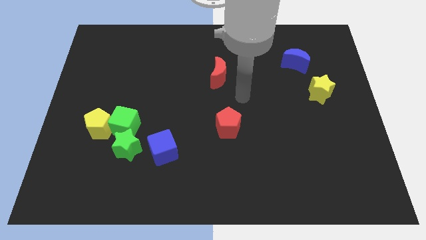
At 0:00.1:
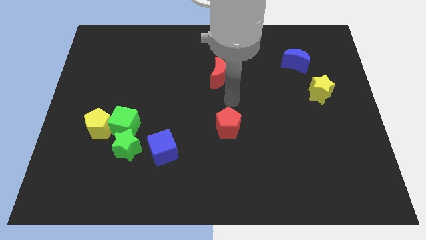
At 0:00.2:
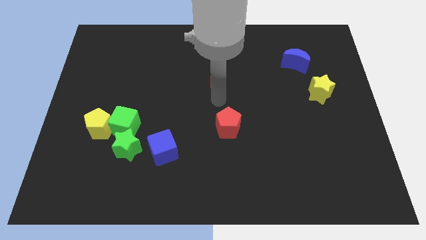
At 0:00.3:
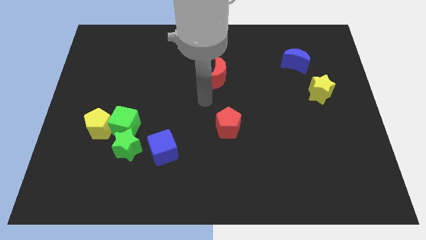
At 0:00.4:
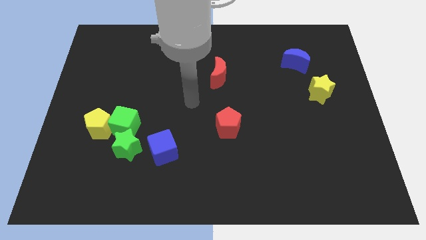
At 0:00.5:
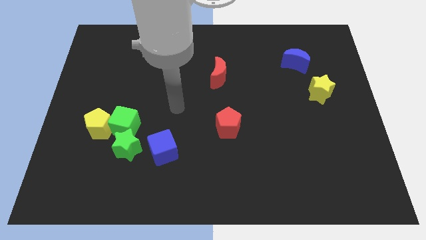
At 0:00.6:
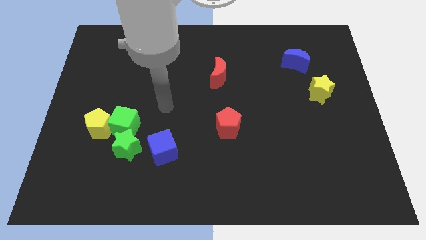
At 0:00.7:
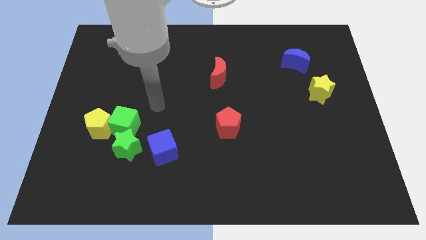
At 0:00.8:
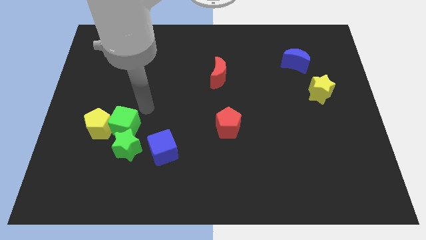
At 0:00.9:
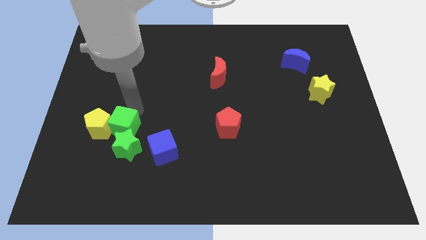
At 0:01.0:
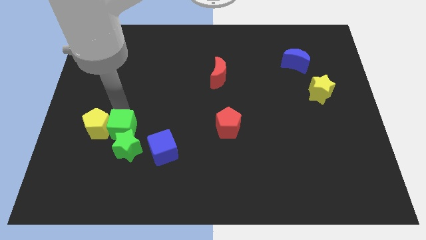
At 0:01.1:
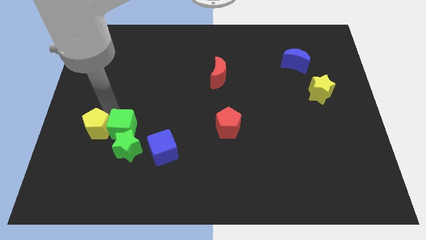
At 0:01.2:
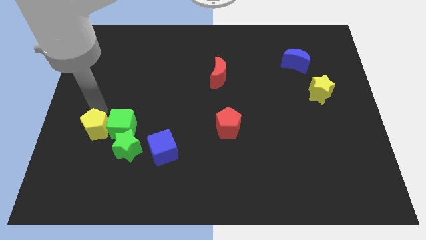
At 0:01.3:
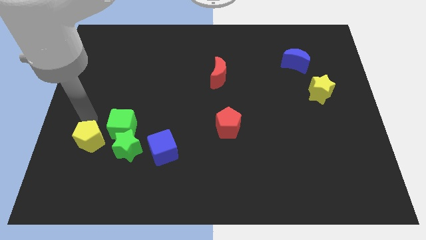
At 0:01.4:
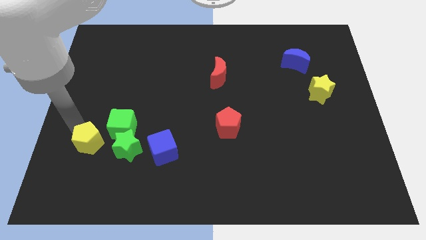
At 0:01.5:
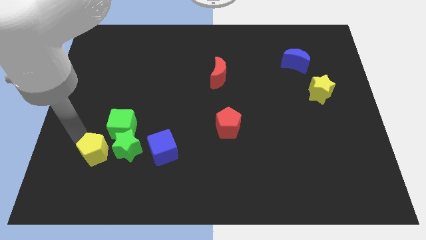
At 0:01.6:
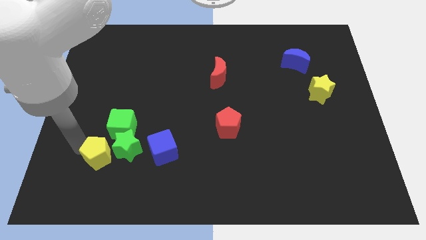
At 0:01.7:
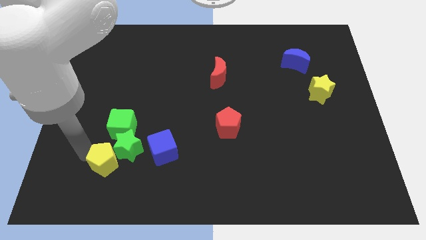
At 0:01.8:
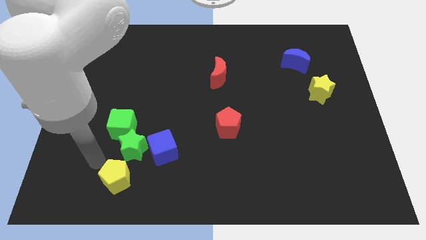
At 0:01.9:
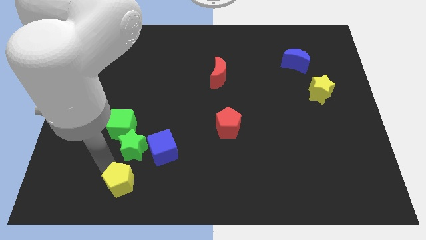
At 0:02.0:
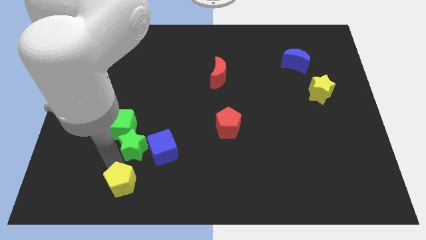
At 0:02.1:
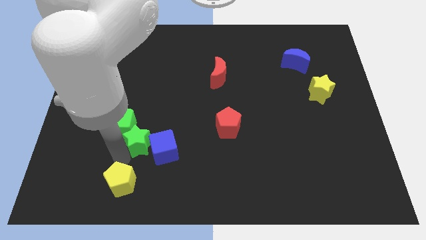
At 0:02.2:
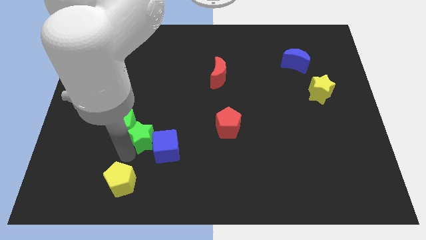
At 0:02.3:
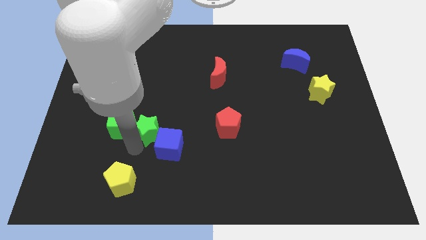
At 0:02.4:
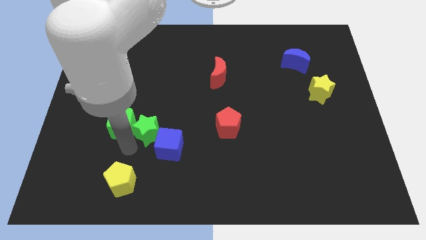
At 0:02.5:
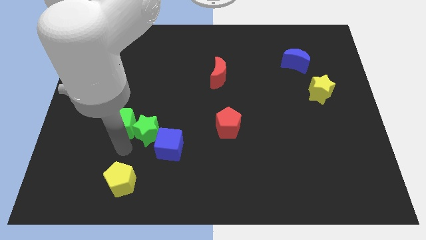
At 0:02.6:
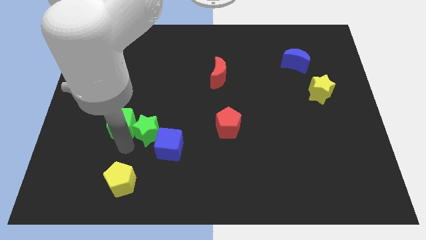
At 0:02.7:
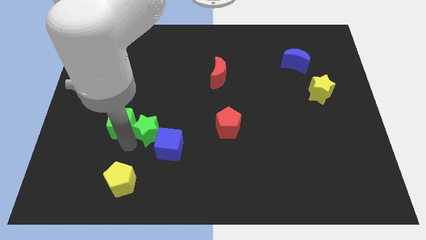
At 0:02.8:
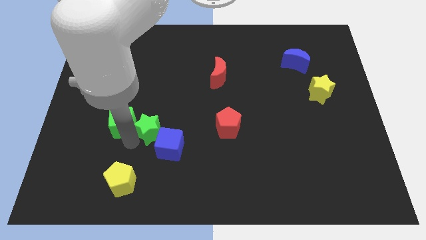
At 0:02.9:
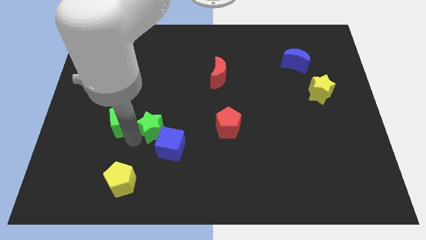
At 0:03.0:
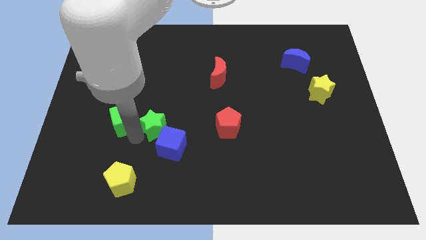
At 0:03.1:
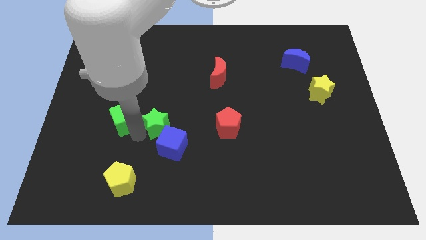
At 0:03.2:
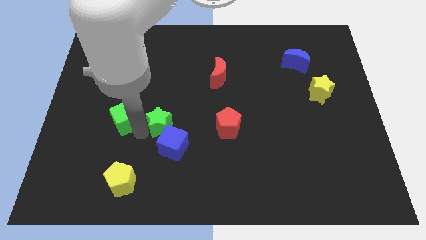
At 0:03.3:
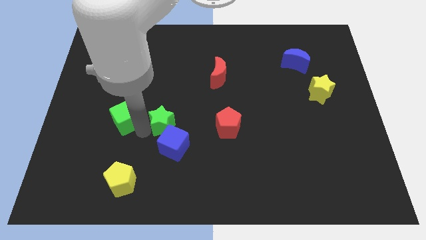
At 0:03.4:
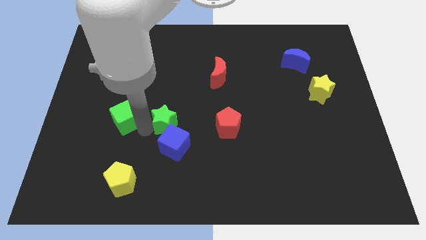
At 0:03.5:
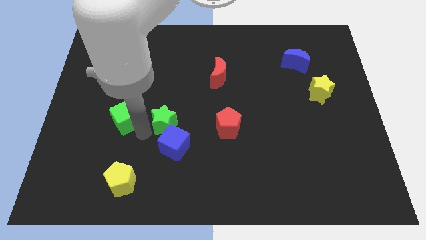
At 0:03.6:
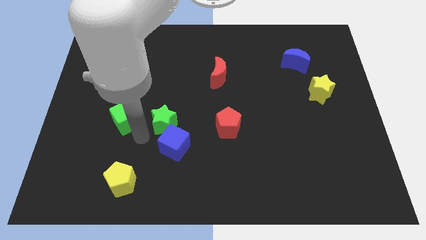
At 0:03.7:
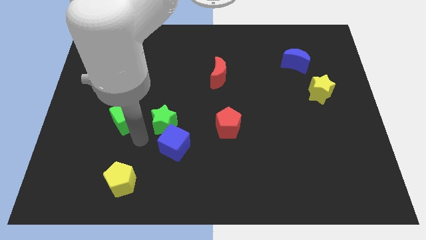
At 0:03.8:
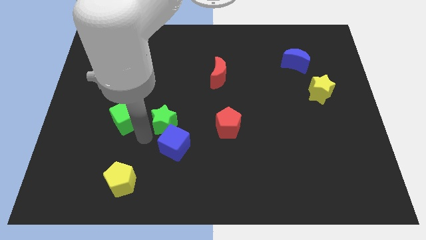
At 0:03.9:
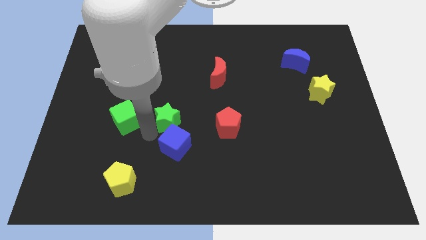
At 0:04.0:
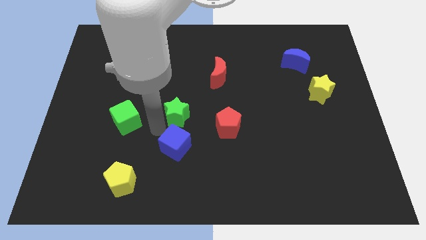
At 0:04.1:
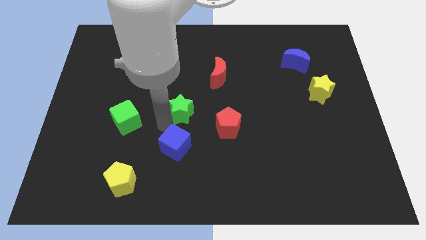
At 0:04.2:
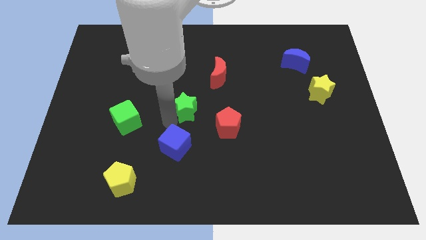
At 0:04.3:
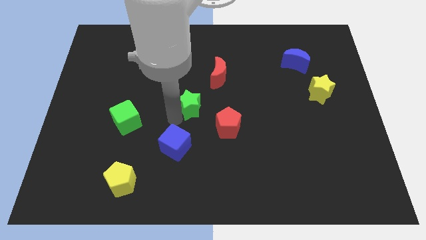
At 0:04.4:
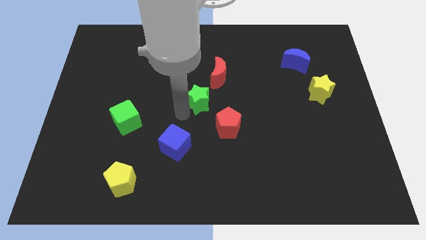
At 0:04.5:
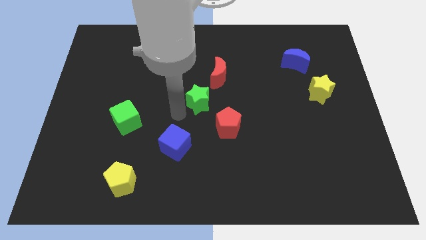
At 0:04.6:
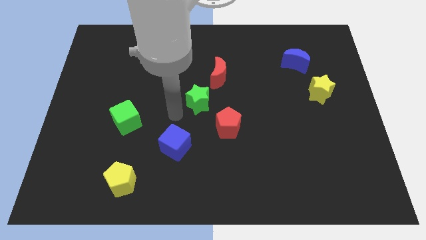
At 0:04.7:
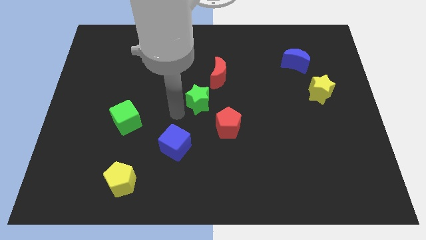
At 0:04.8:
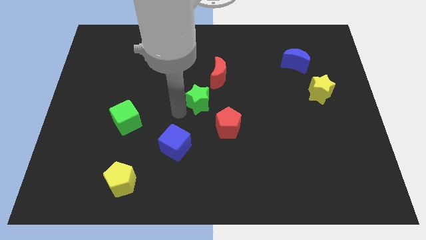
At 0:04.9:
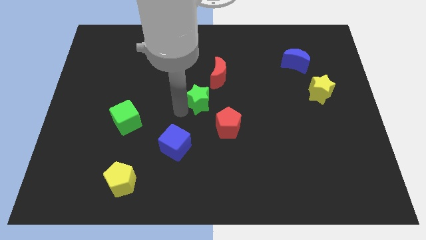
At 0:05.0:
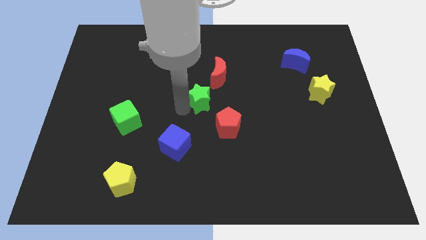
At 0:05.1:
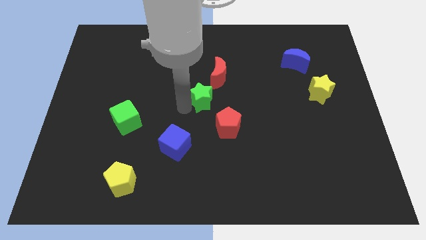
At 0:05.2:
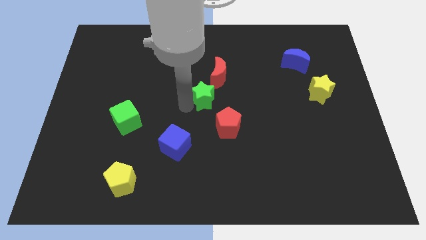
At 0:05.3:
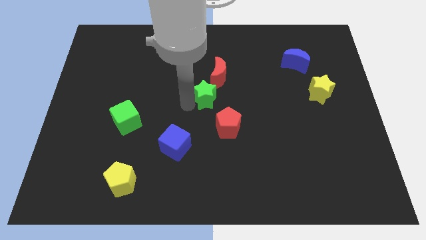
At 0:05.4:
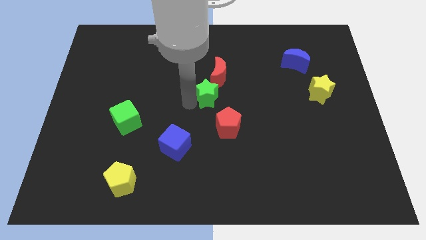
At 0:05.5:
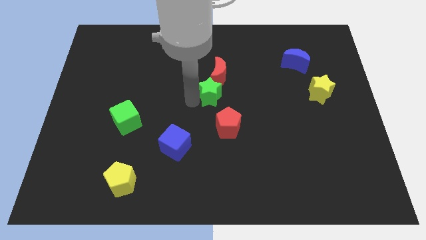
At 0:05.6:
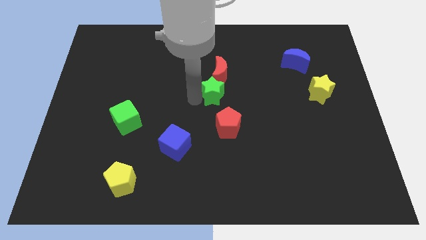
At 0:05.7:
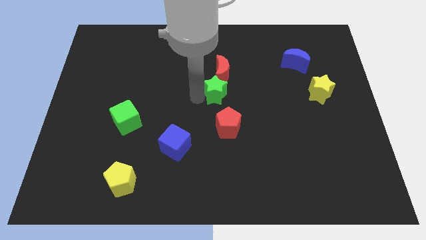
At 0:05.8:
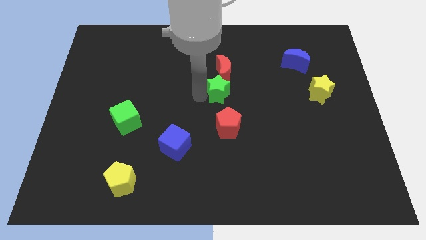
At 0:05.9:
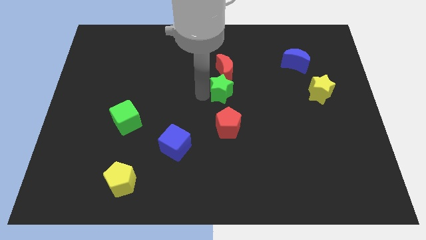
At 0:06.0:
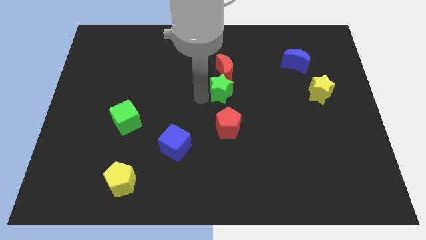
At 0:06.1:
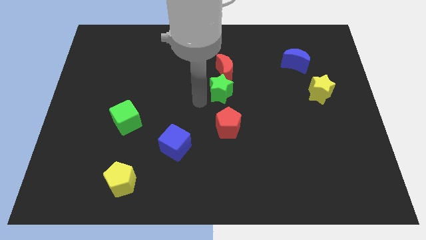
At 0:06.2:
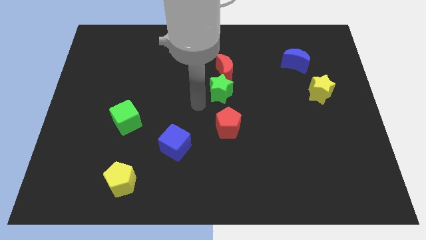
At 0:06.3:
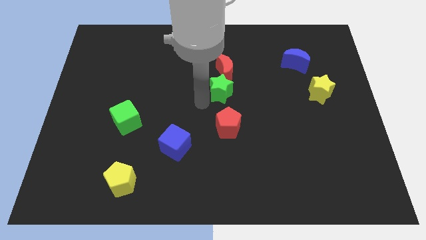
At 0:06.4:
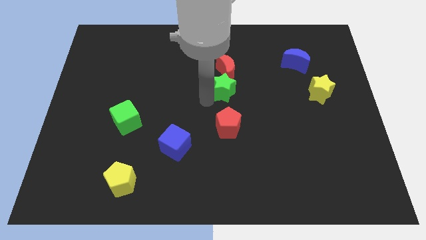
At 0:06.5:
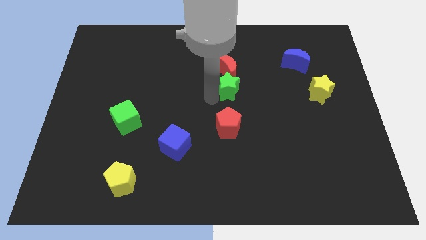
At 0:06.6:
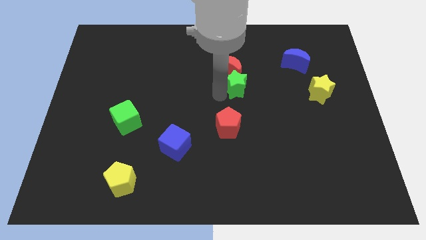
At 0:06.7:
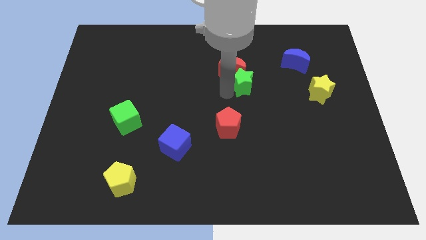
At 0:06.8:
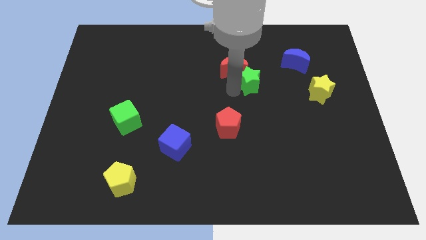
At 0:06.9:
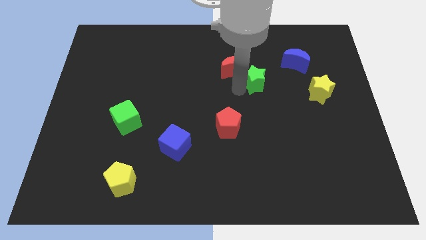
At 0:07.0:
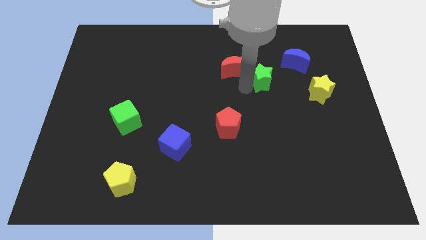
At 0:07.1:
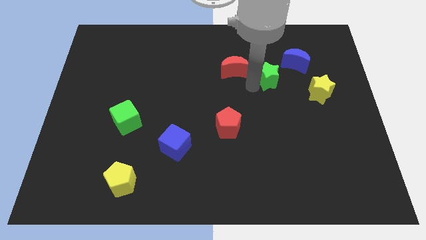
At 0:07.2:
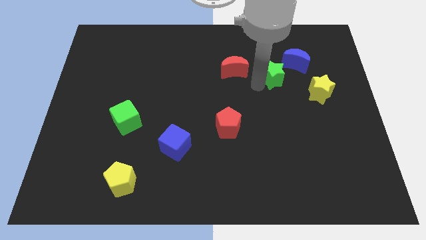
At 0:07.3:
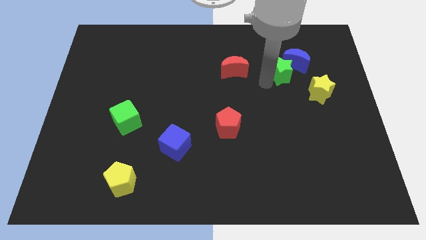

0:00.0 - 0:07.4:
slide the green star close to the blue moon
